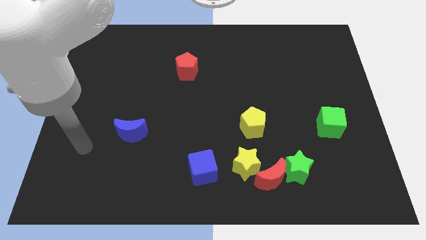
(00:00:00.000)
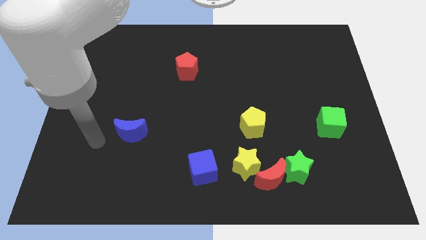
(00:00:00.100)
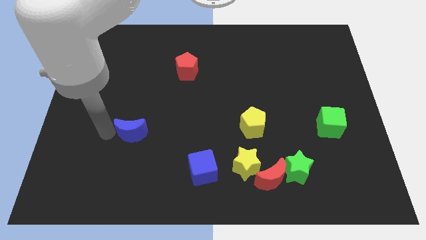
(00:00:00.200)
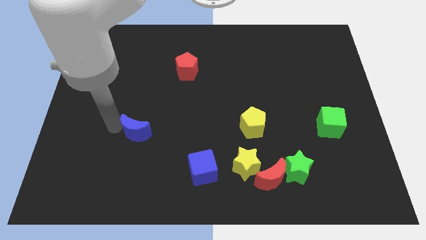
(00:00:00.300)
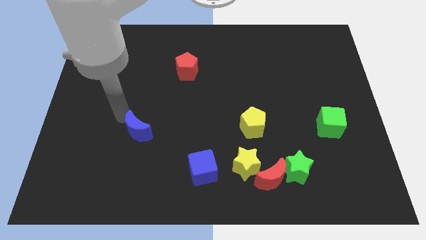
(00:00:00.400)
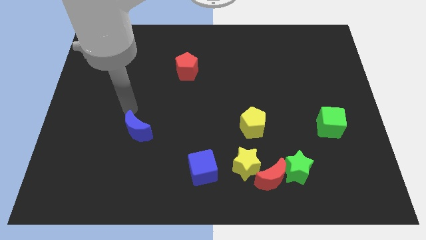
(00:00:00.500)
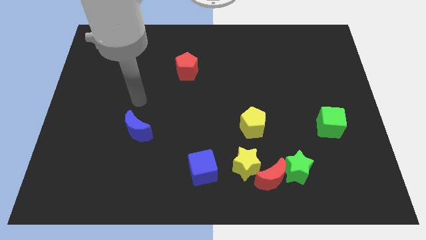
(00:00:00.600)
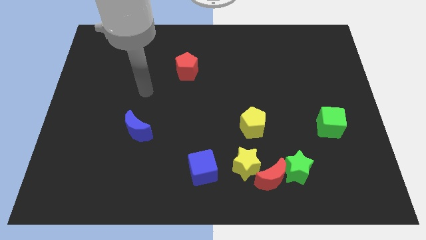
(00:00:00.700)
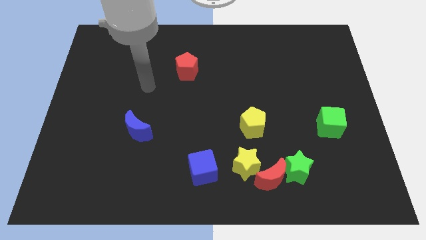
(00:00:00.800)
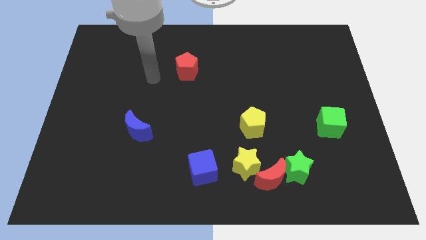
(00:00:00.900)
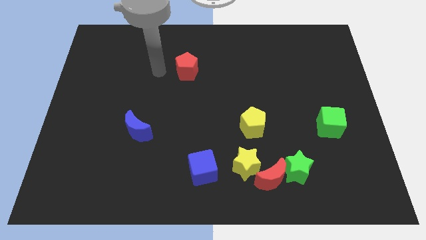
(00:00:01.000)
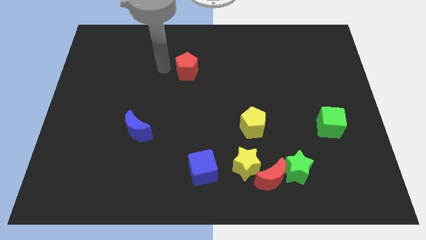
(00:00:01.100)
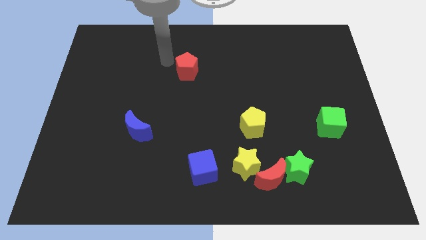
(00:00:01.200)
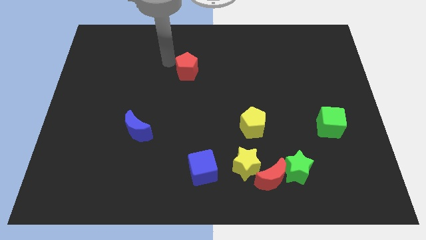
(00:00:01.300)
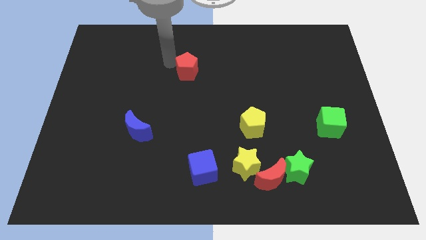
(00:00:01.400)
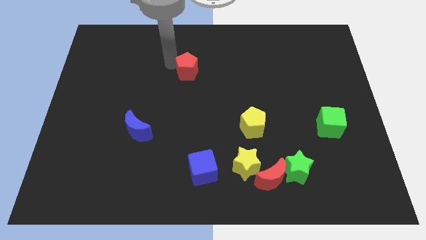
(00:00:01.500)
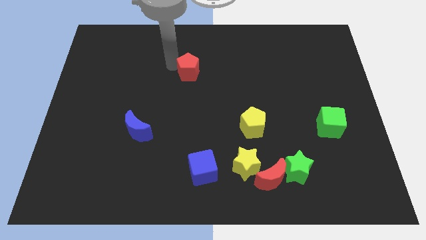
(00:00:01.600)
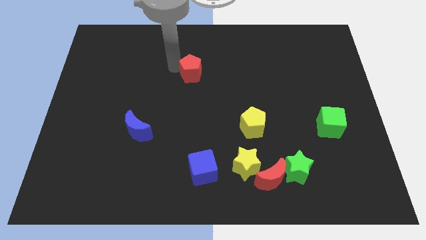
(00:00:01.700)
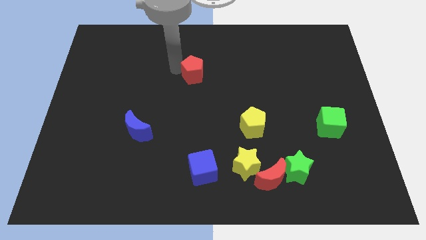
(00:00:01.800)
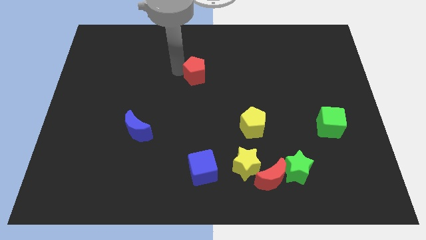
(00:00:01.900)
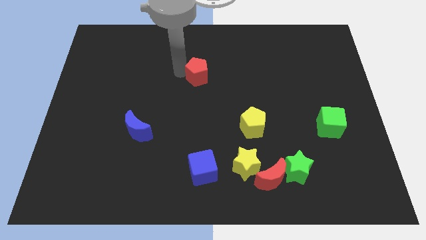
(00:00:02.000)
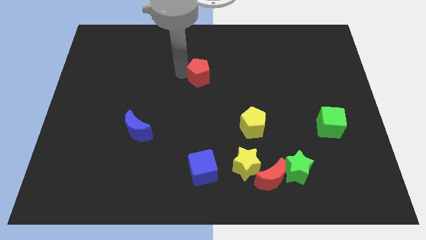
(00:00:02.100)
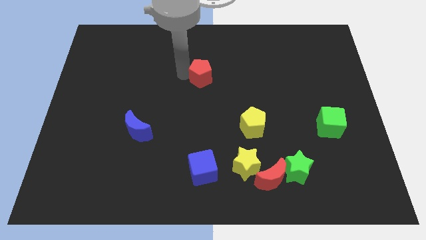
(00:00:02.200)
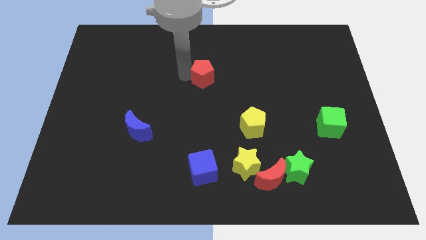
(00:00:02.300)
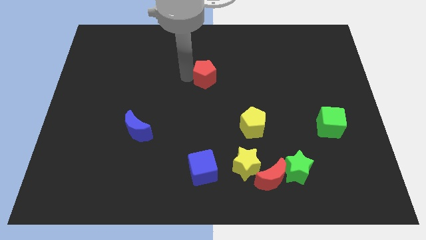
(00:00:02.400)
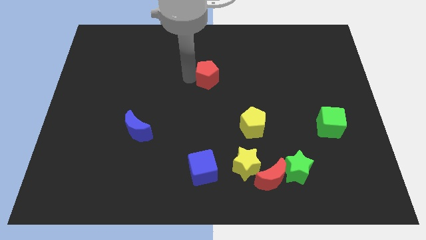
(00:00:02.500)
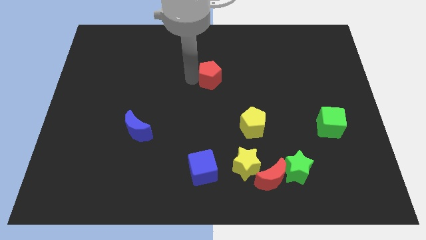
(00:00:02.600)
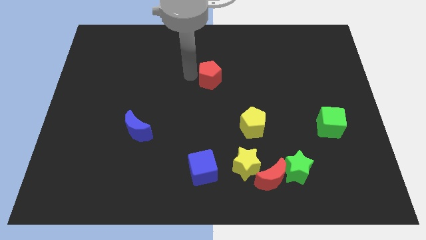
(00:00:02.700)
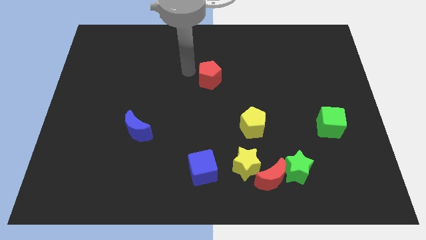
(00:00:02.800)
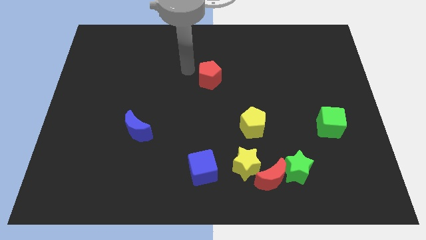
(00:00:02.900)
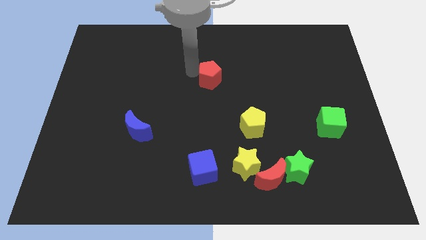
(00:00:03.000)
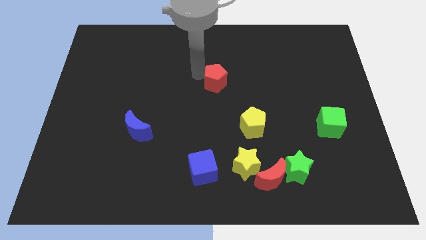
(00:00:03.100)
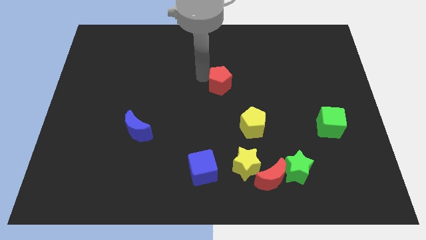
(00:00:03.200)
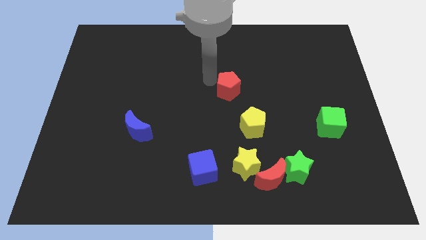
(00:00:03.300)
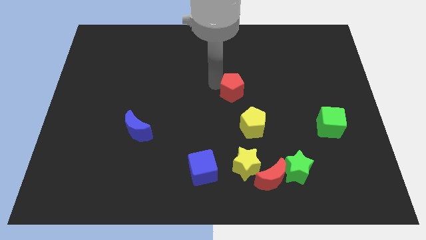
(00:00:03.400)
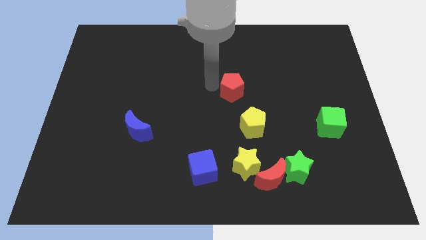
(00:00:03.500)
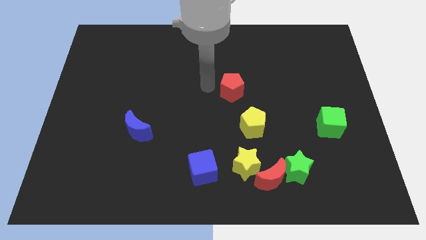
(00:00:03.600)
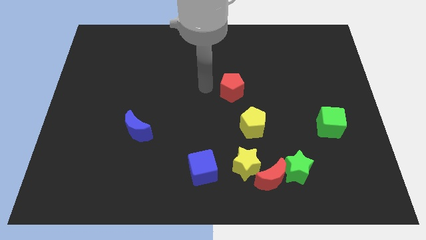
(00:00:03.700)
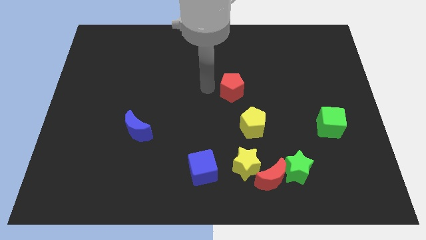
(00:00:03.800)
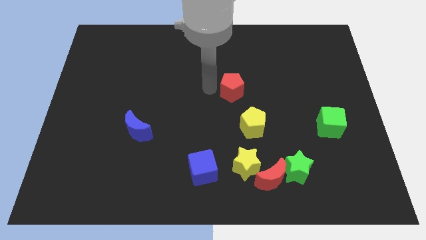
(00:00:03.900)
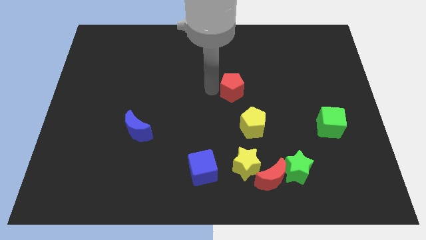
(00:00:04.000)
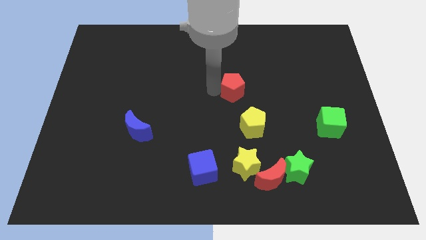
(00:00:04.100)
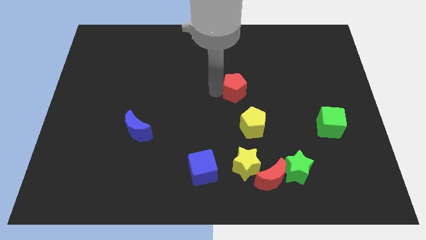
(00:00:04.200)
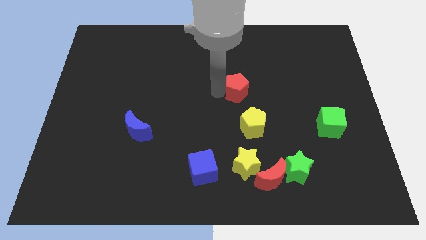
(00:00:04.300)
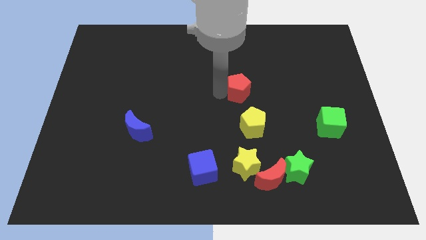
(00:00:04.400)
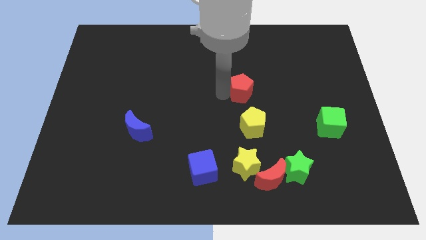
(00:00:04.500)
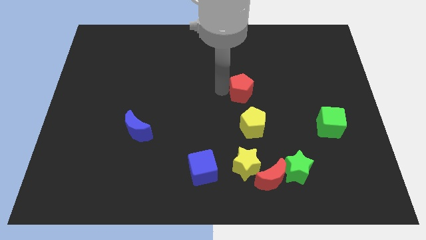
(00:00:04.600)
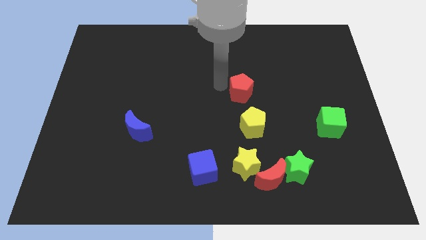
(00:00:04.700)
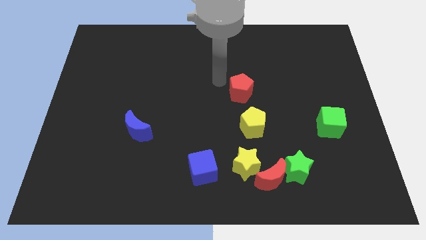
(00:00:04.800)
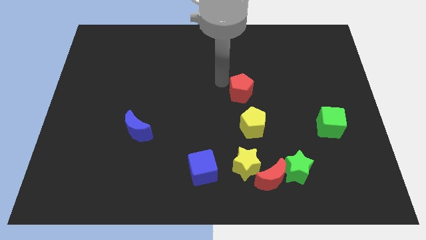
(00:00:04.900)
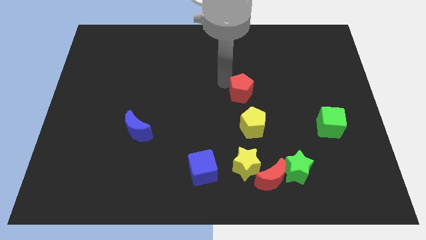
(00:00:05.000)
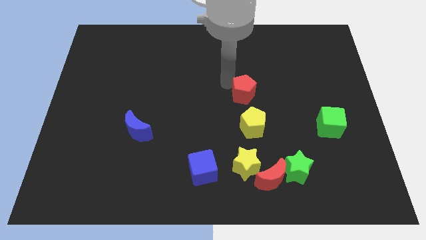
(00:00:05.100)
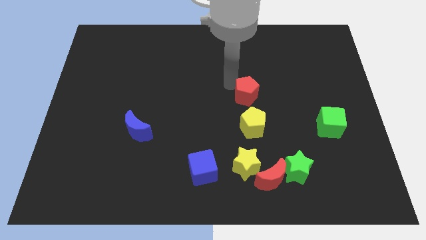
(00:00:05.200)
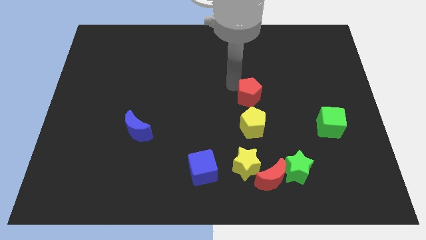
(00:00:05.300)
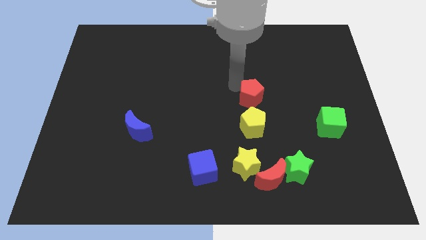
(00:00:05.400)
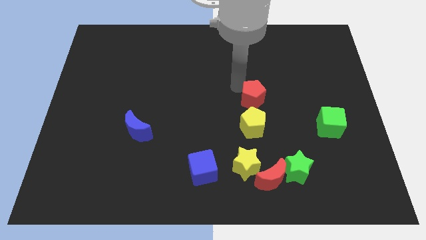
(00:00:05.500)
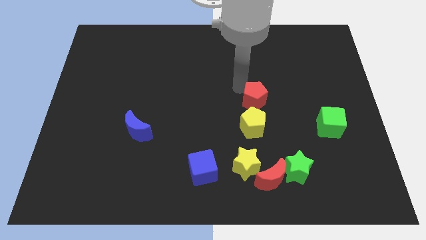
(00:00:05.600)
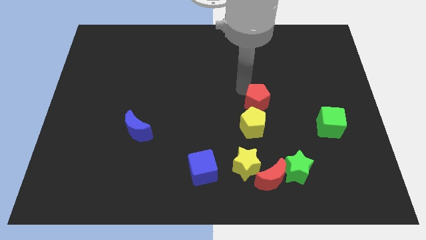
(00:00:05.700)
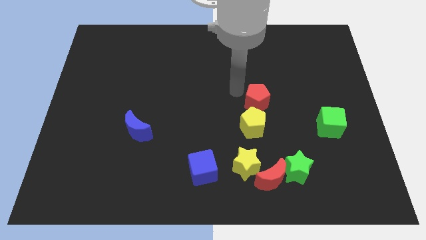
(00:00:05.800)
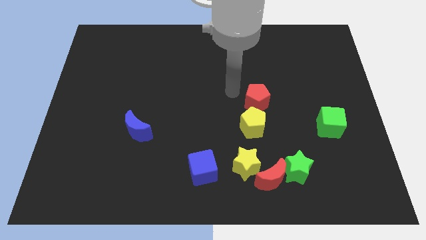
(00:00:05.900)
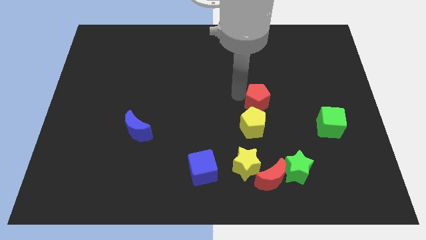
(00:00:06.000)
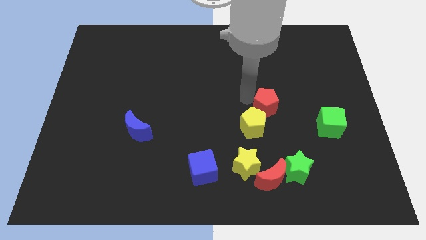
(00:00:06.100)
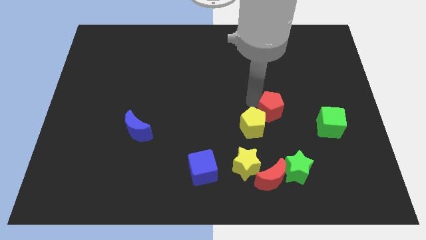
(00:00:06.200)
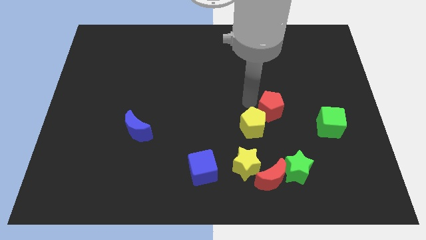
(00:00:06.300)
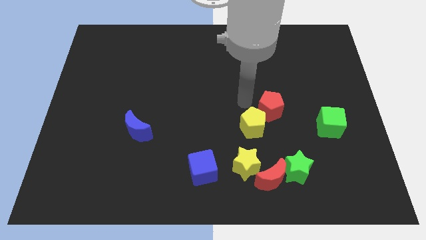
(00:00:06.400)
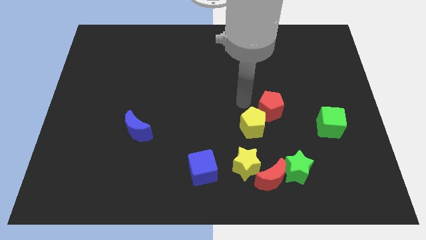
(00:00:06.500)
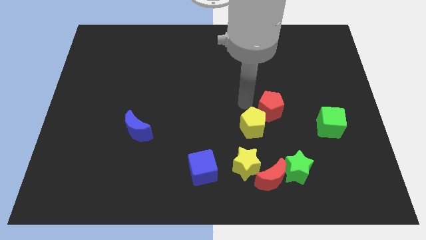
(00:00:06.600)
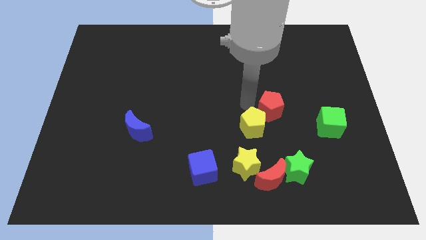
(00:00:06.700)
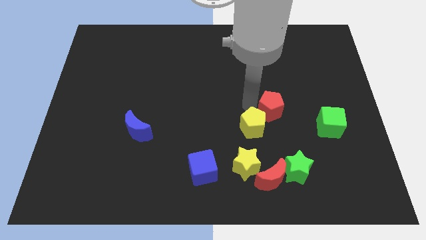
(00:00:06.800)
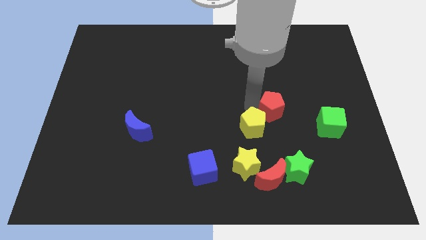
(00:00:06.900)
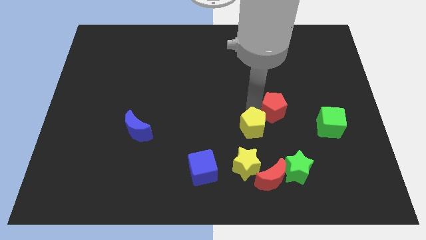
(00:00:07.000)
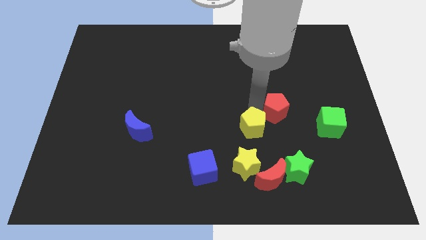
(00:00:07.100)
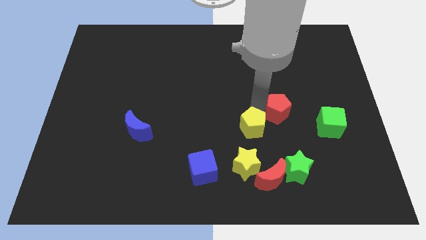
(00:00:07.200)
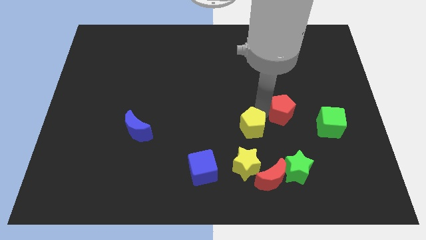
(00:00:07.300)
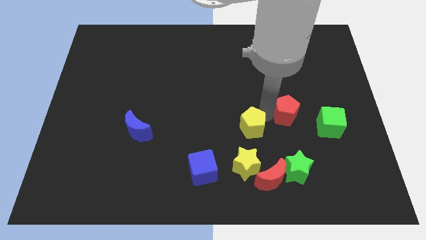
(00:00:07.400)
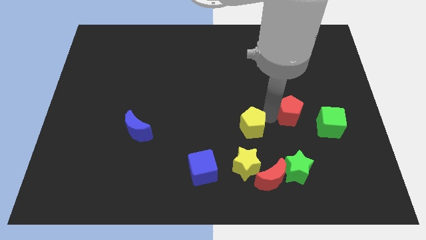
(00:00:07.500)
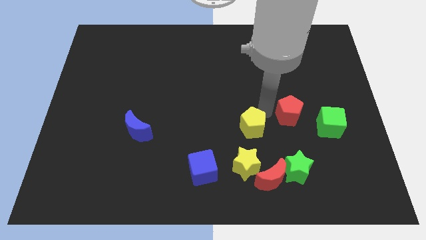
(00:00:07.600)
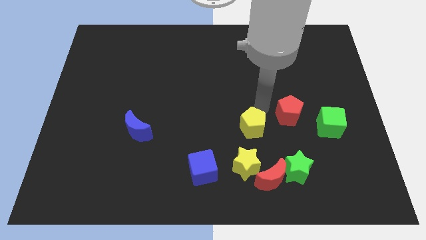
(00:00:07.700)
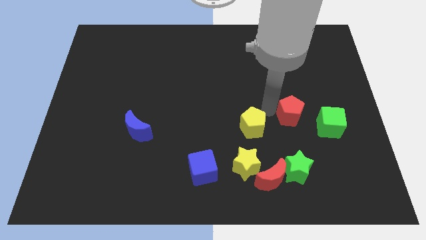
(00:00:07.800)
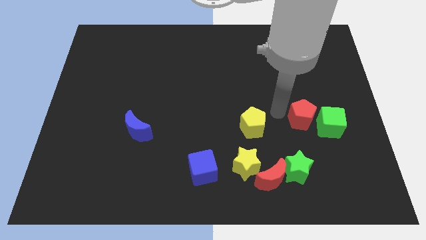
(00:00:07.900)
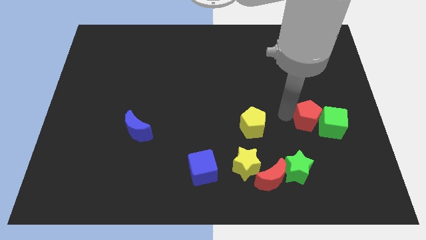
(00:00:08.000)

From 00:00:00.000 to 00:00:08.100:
push the red pentagon to the green cube

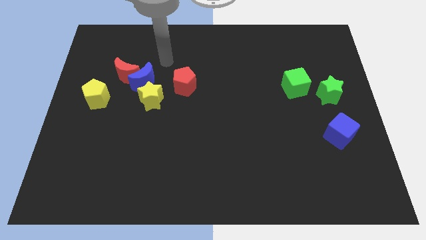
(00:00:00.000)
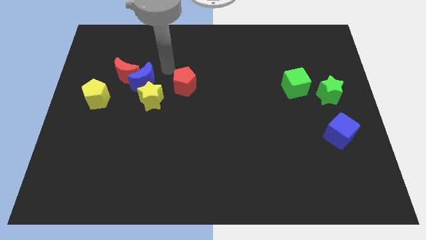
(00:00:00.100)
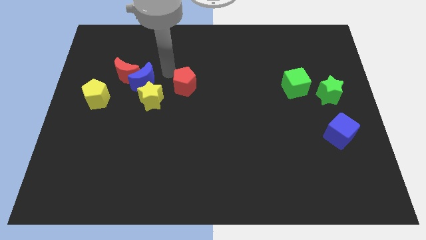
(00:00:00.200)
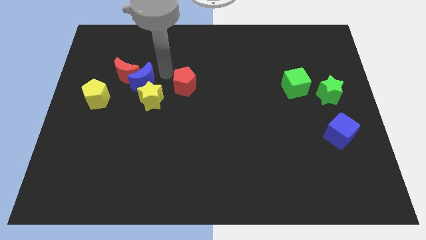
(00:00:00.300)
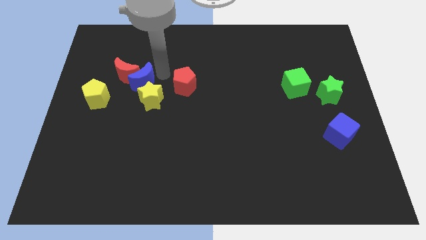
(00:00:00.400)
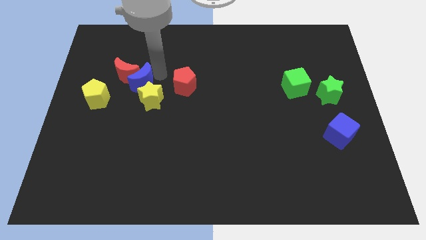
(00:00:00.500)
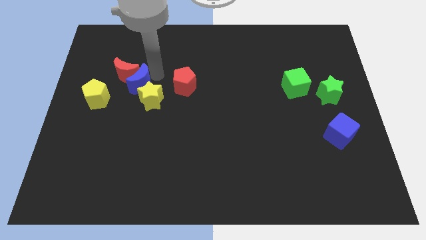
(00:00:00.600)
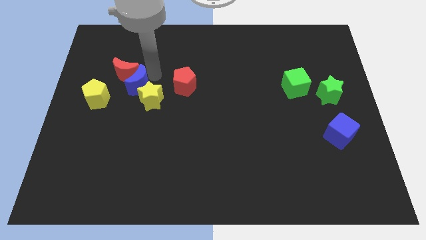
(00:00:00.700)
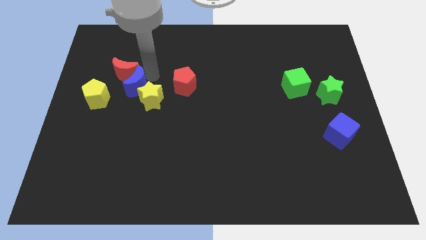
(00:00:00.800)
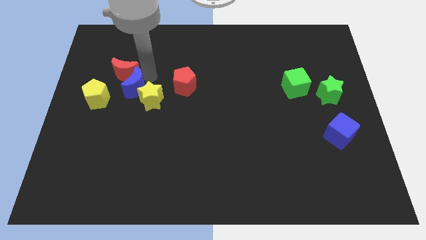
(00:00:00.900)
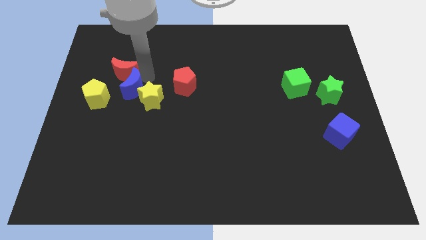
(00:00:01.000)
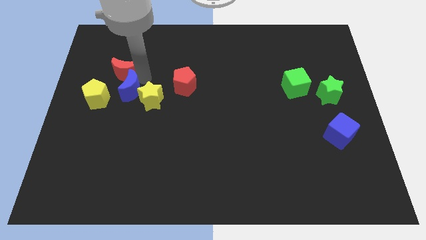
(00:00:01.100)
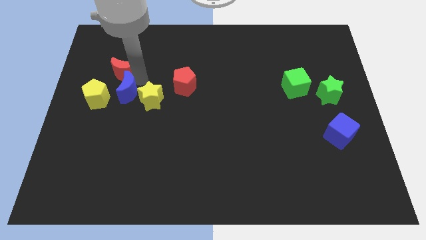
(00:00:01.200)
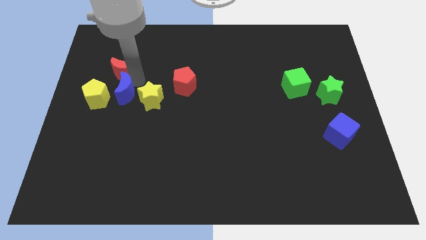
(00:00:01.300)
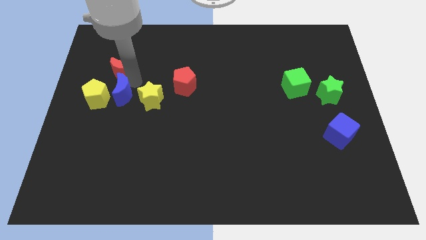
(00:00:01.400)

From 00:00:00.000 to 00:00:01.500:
push the blue moon close to the yellow pentagon
